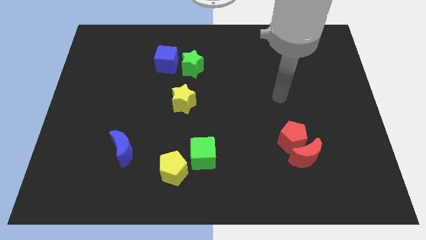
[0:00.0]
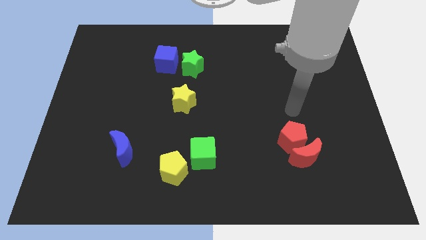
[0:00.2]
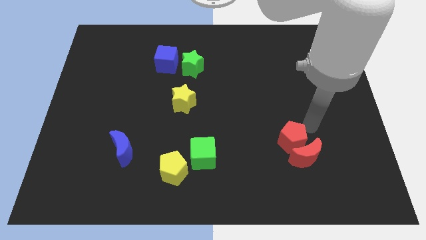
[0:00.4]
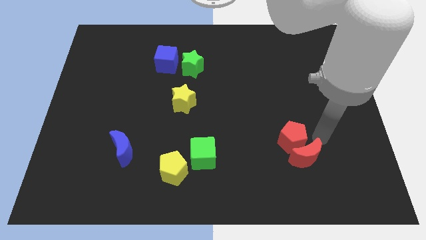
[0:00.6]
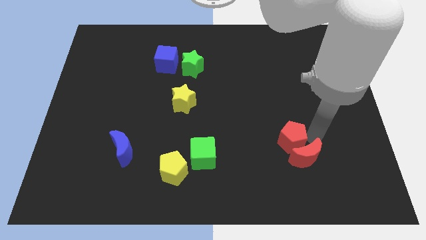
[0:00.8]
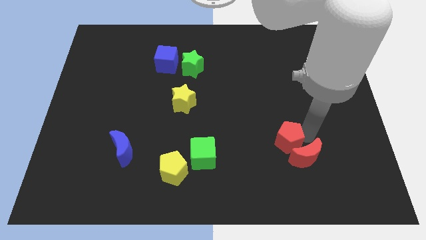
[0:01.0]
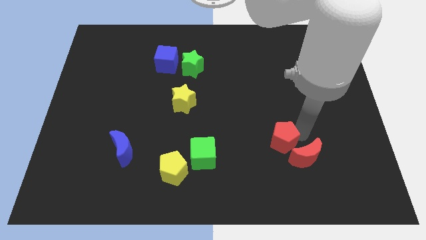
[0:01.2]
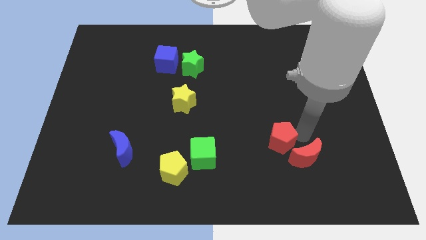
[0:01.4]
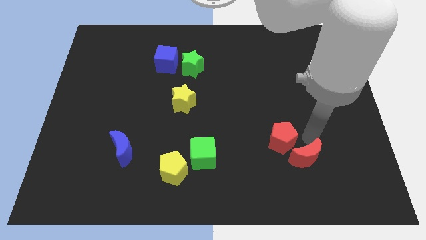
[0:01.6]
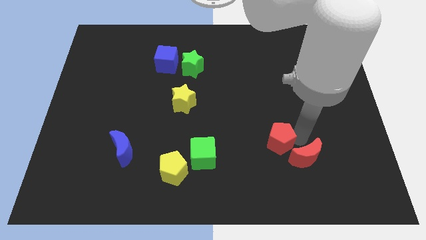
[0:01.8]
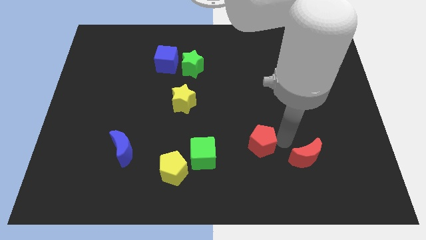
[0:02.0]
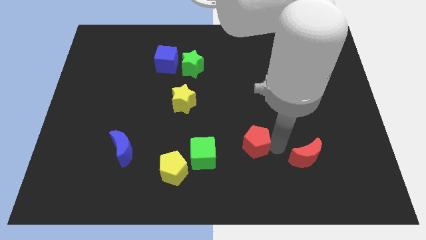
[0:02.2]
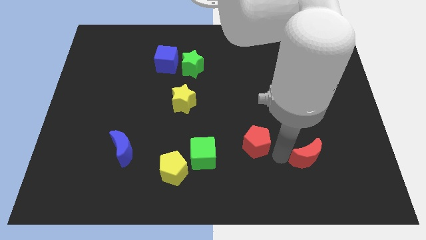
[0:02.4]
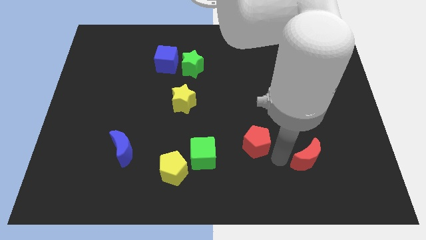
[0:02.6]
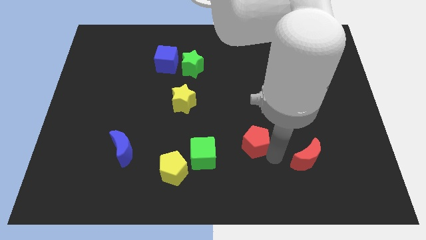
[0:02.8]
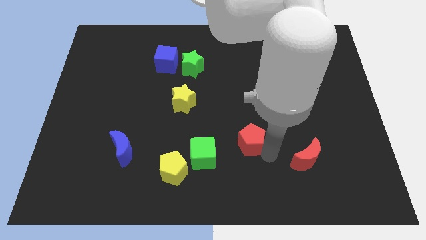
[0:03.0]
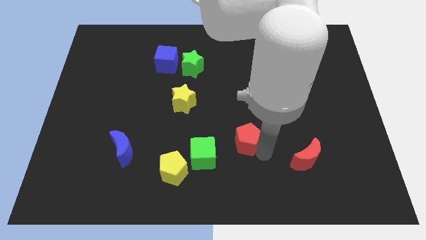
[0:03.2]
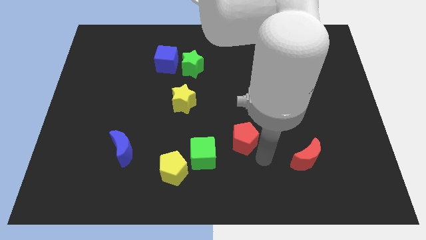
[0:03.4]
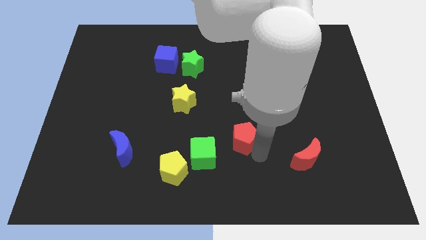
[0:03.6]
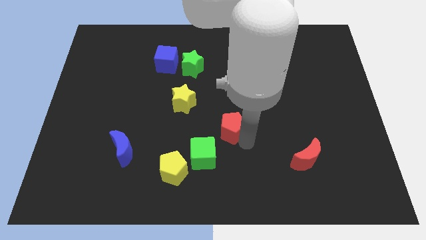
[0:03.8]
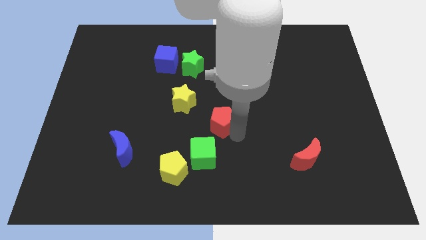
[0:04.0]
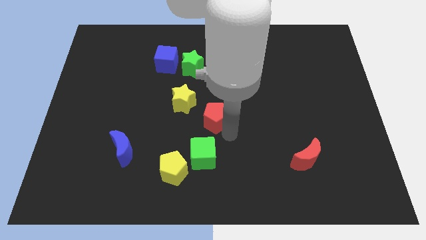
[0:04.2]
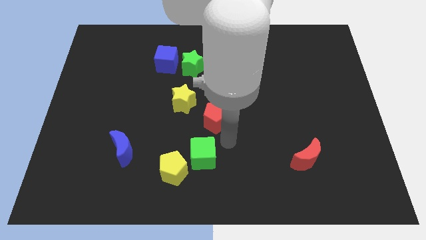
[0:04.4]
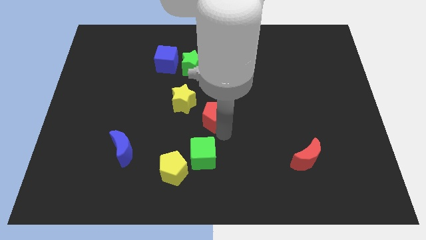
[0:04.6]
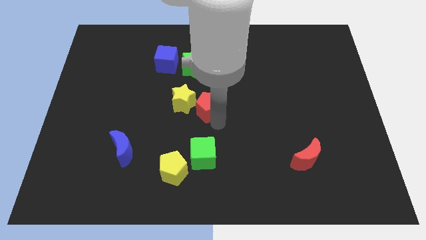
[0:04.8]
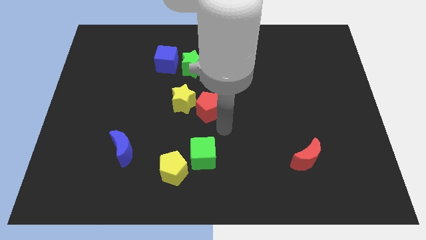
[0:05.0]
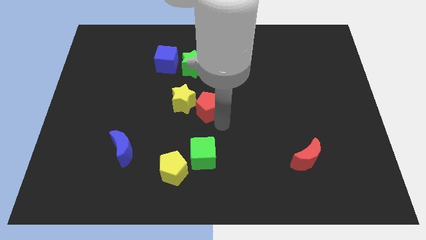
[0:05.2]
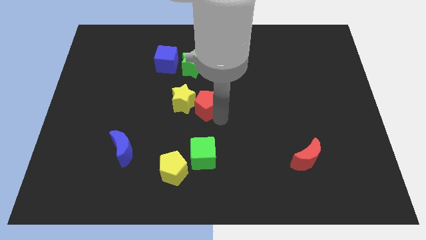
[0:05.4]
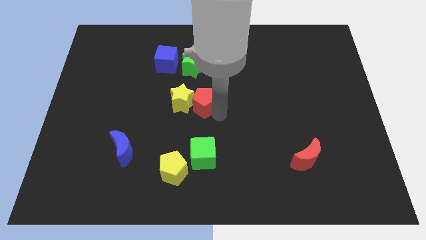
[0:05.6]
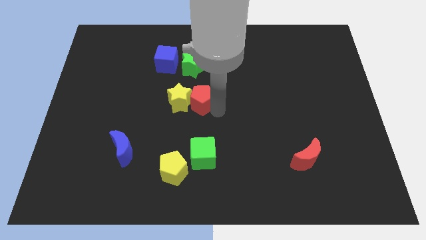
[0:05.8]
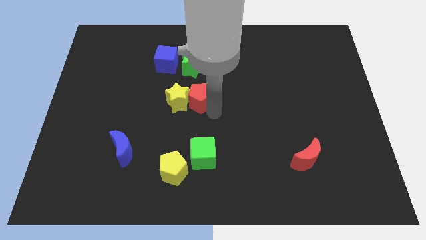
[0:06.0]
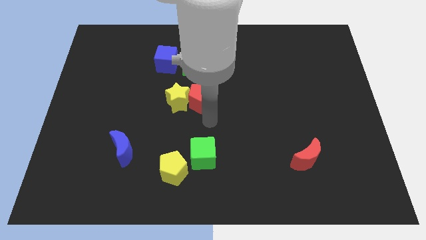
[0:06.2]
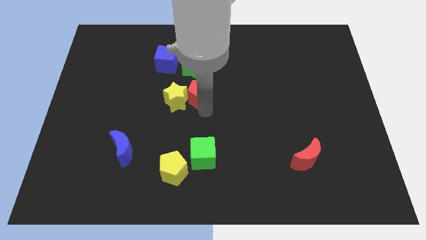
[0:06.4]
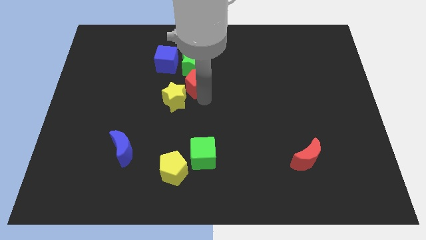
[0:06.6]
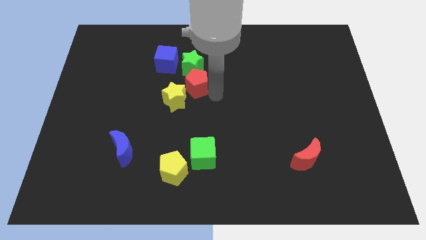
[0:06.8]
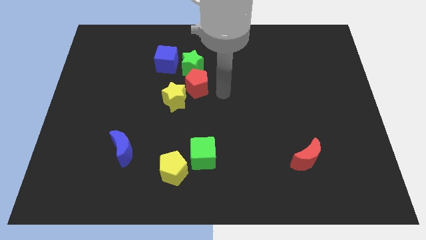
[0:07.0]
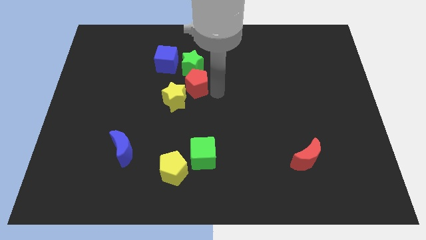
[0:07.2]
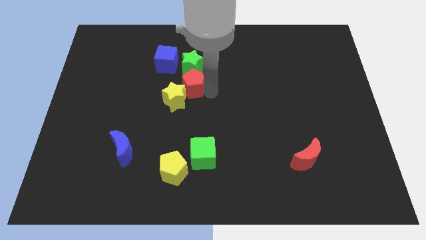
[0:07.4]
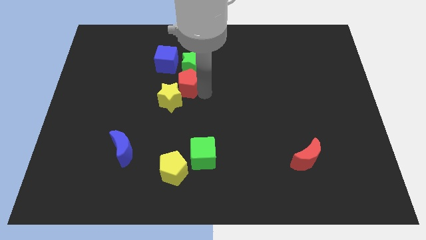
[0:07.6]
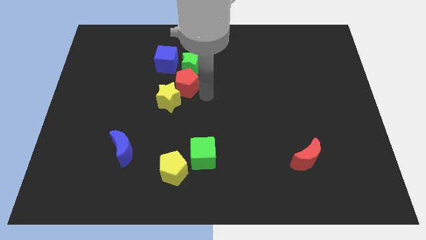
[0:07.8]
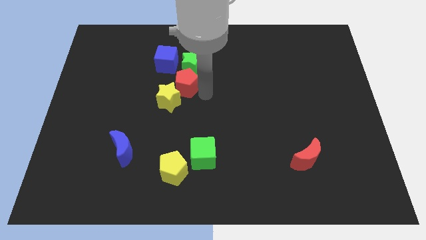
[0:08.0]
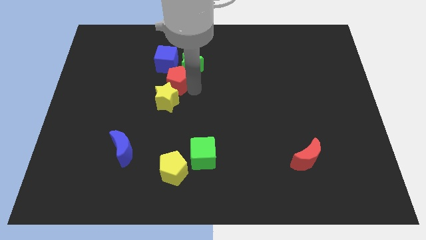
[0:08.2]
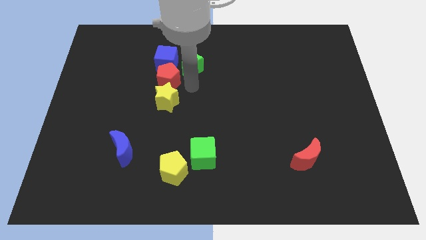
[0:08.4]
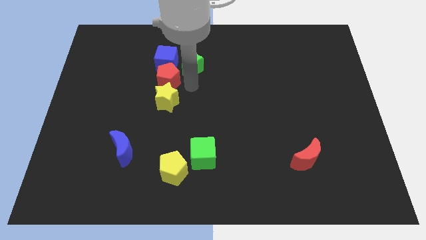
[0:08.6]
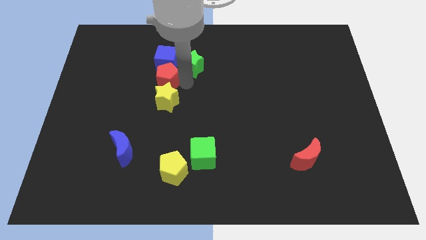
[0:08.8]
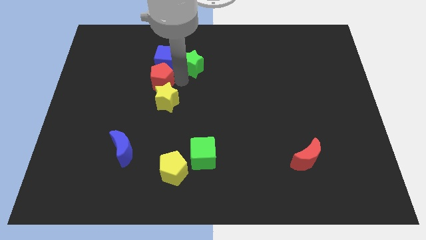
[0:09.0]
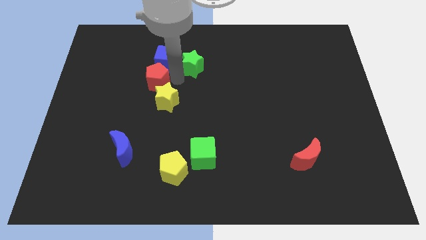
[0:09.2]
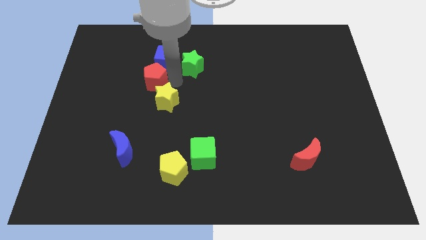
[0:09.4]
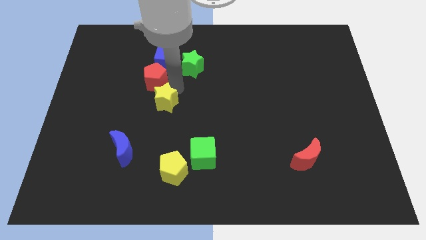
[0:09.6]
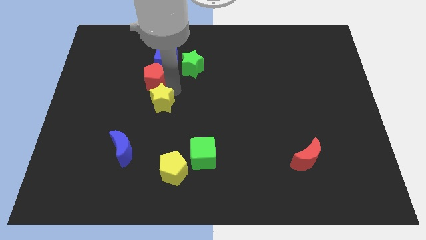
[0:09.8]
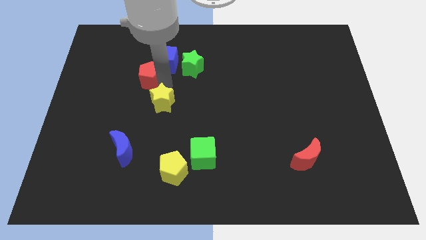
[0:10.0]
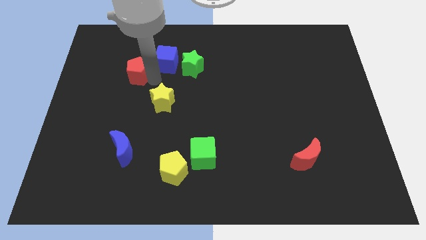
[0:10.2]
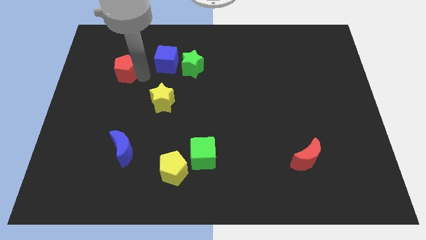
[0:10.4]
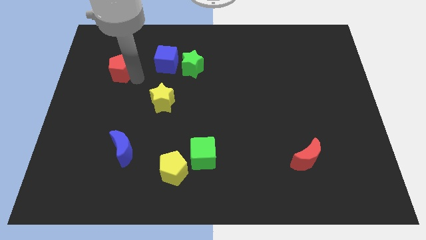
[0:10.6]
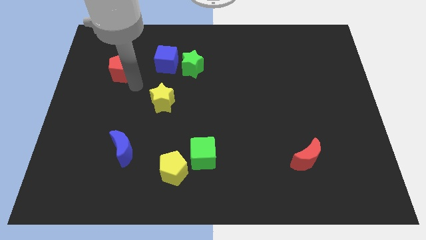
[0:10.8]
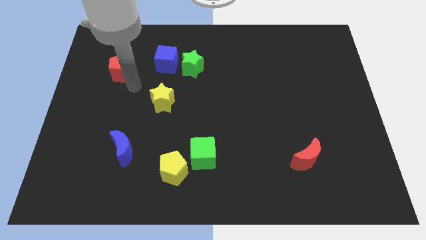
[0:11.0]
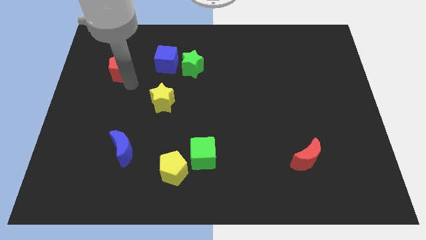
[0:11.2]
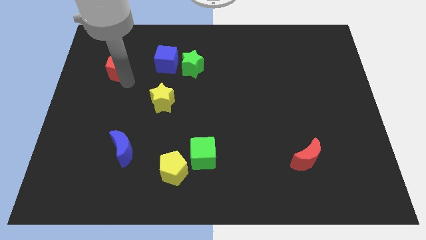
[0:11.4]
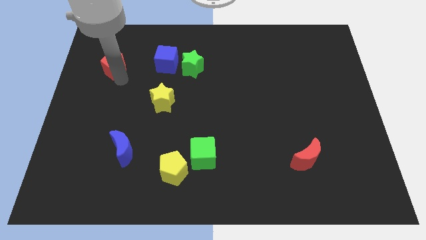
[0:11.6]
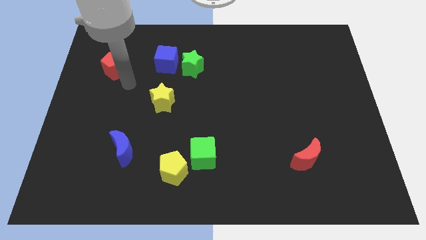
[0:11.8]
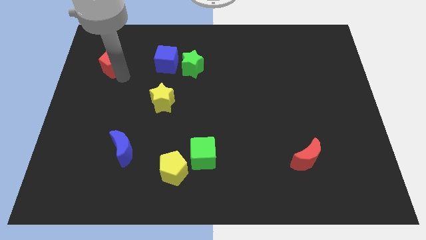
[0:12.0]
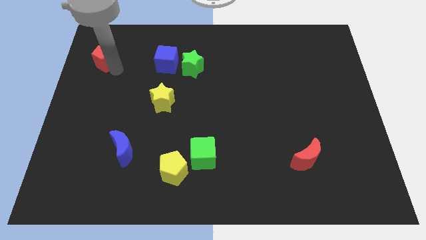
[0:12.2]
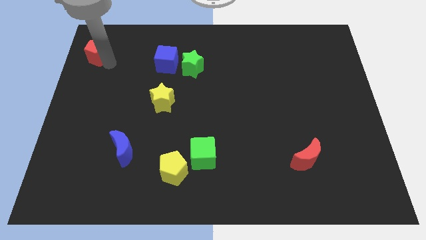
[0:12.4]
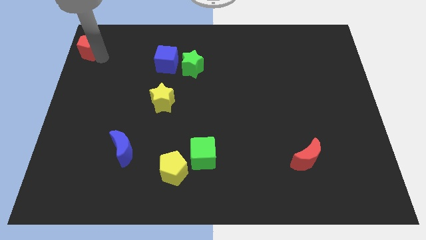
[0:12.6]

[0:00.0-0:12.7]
push the red pentagon to the top left of the board

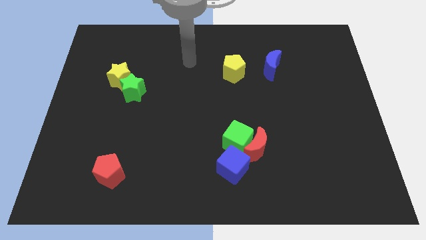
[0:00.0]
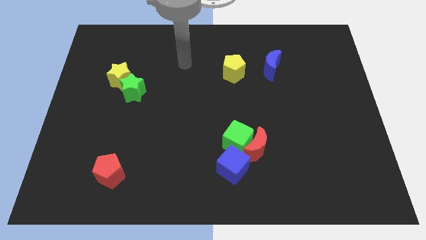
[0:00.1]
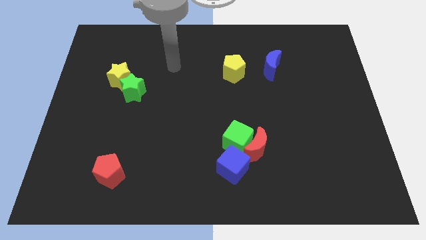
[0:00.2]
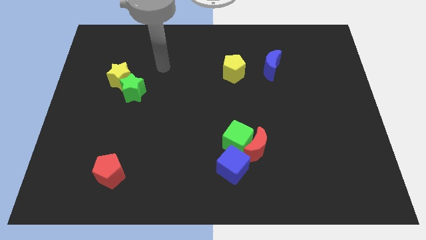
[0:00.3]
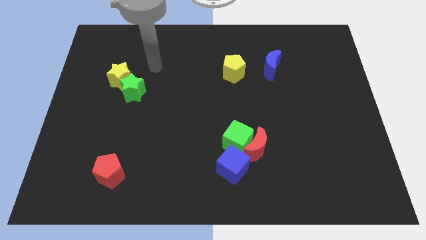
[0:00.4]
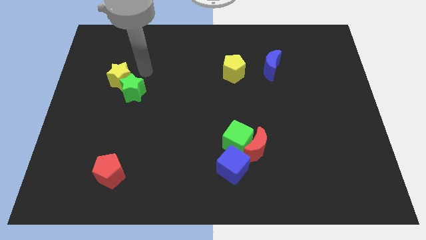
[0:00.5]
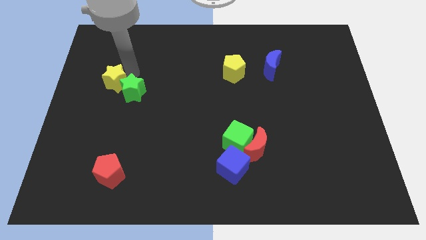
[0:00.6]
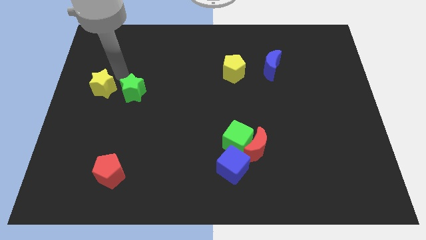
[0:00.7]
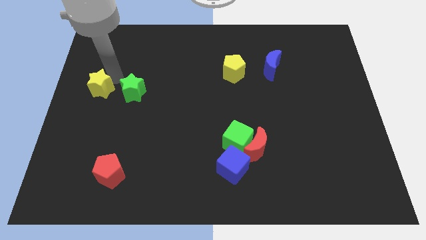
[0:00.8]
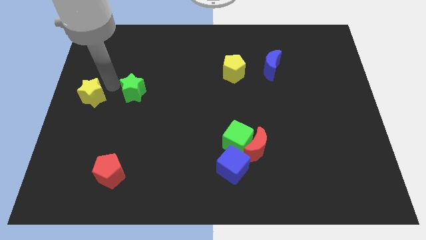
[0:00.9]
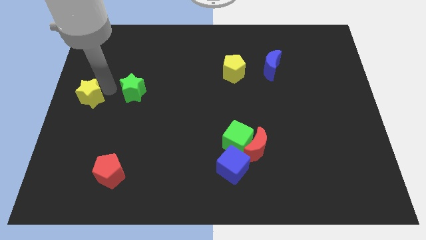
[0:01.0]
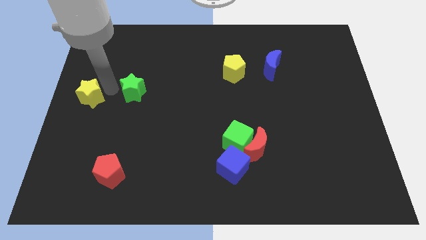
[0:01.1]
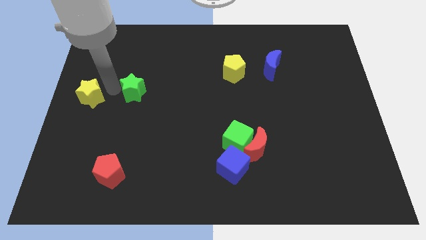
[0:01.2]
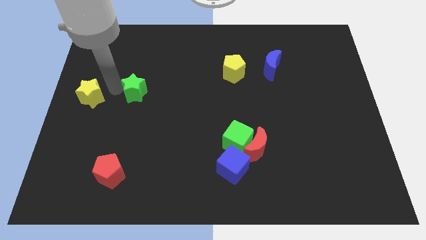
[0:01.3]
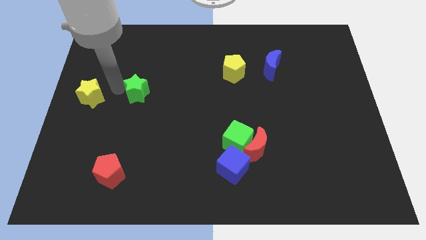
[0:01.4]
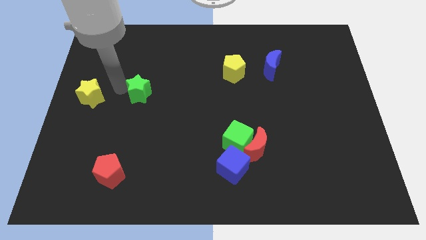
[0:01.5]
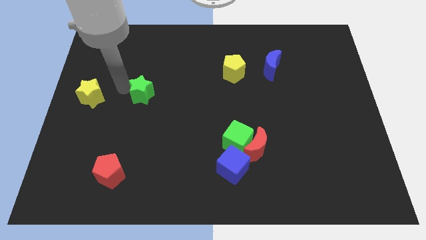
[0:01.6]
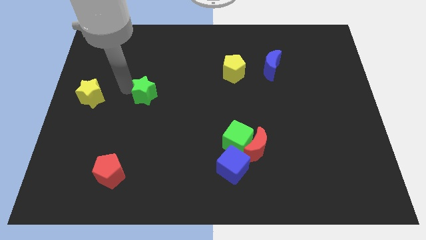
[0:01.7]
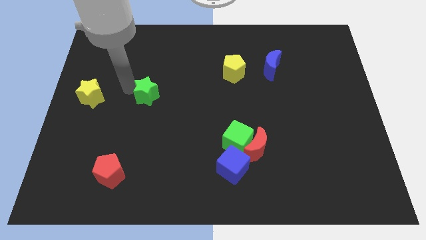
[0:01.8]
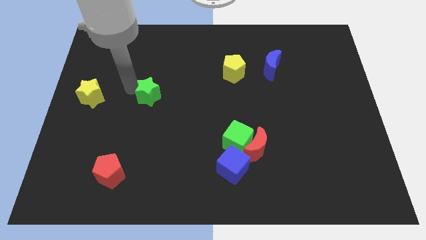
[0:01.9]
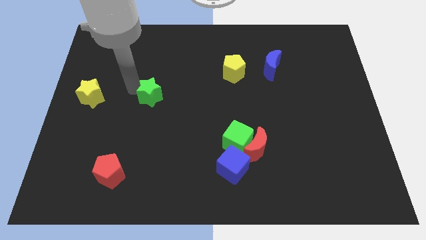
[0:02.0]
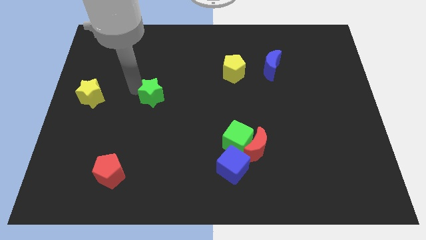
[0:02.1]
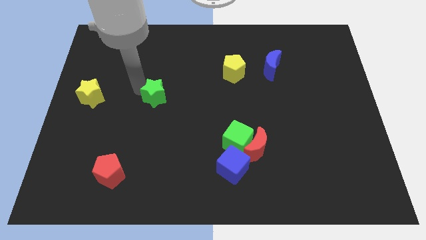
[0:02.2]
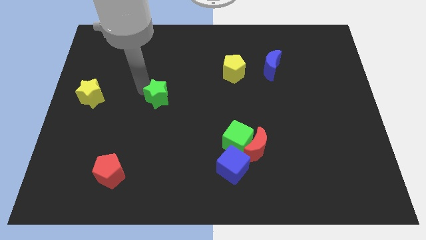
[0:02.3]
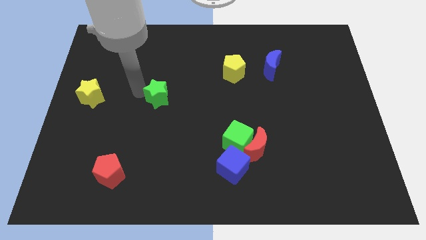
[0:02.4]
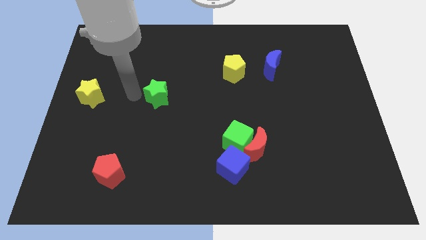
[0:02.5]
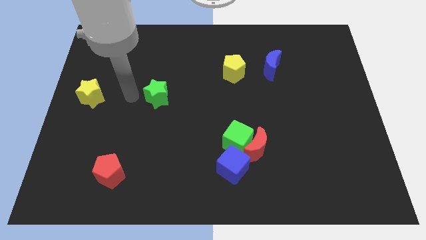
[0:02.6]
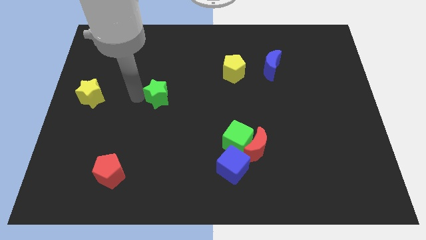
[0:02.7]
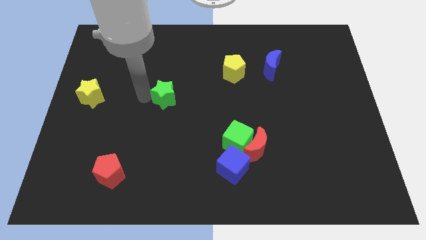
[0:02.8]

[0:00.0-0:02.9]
put the green star to the middle
